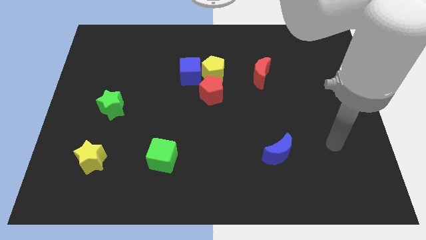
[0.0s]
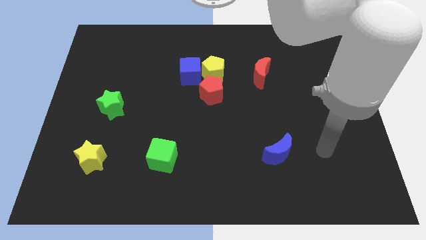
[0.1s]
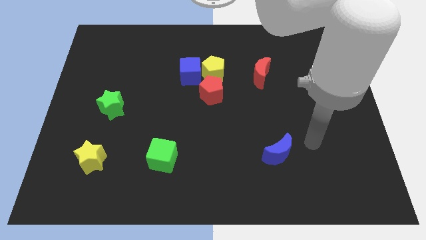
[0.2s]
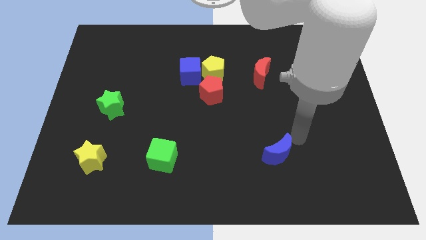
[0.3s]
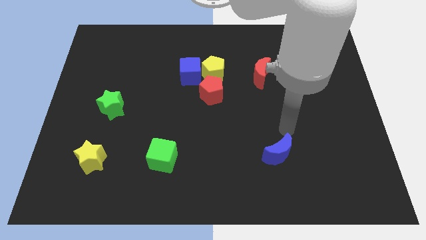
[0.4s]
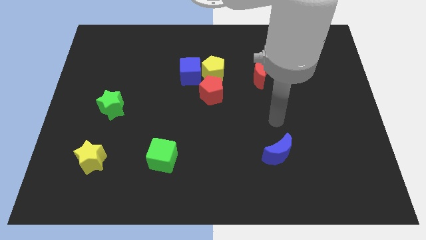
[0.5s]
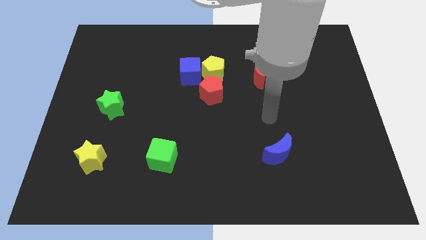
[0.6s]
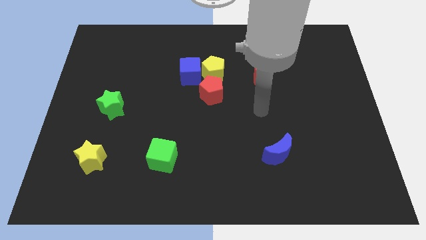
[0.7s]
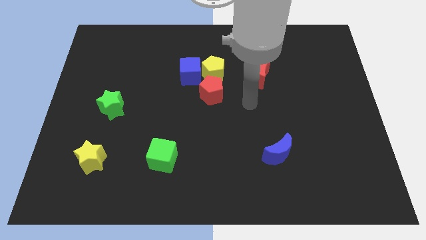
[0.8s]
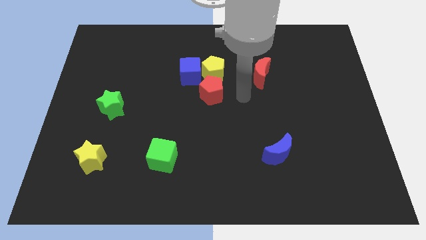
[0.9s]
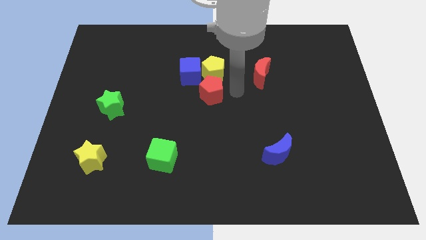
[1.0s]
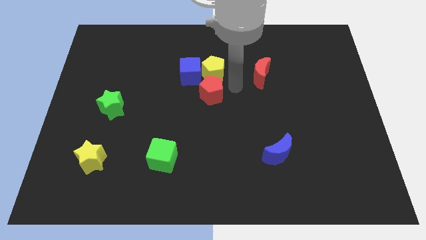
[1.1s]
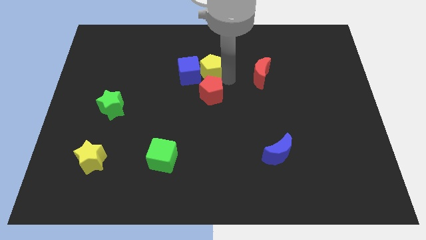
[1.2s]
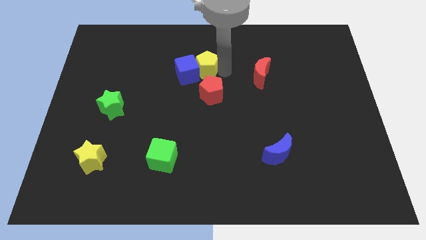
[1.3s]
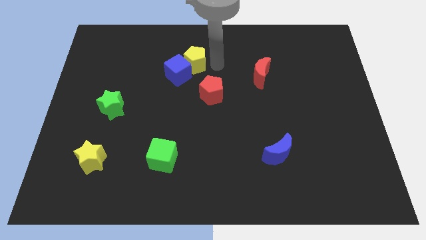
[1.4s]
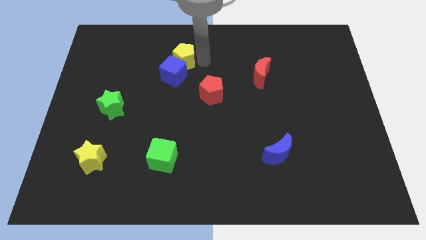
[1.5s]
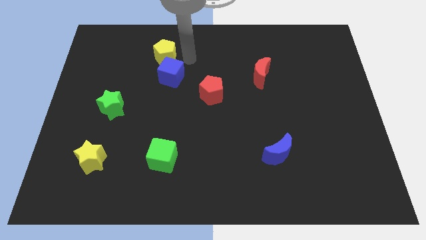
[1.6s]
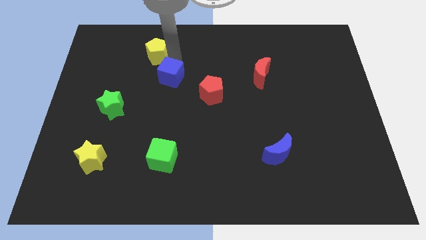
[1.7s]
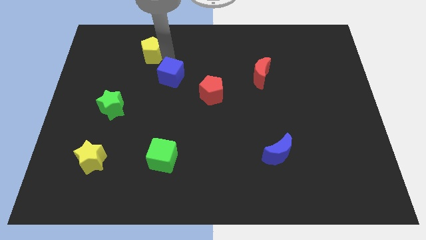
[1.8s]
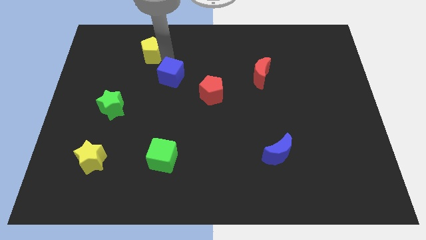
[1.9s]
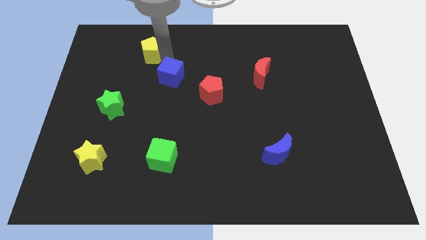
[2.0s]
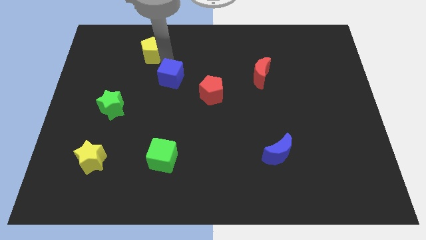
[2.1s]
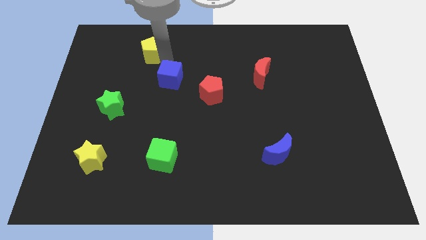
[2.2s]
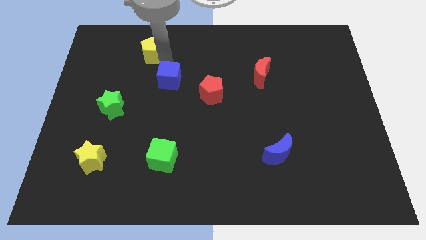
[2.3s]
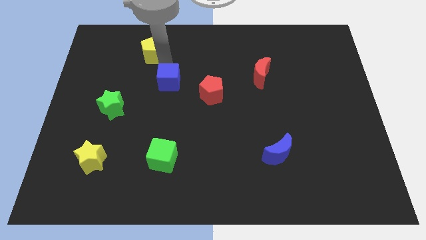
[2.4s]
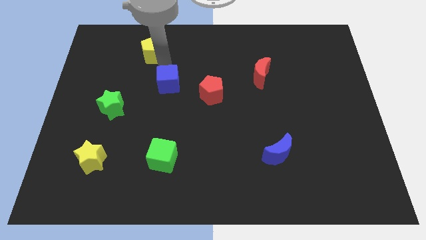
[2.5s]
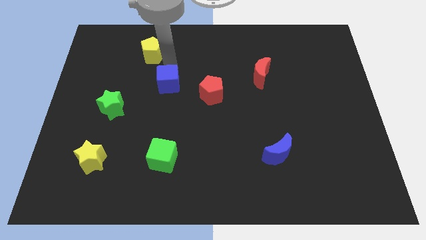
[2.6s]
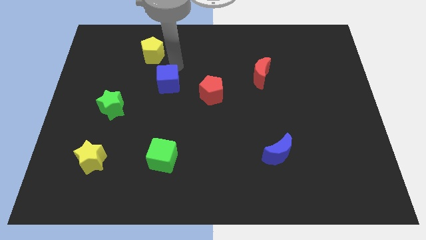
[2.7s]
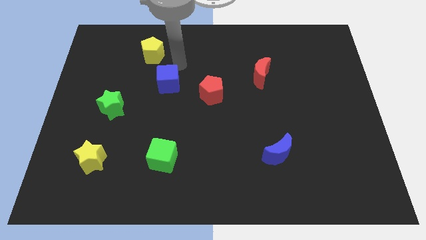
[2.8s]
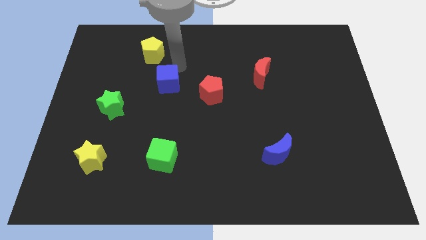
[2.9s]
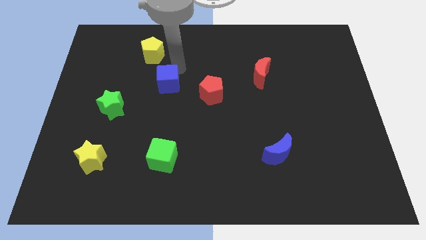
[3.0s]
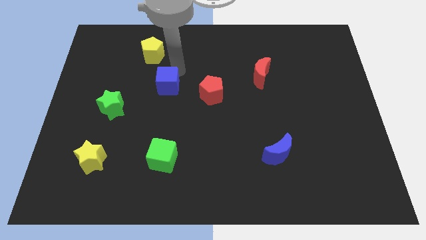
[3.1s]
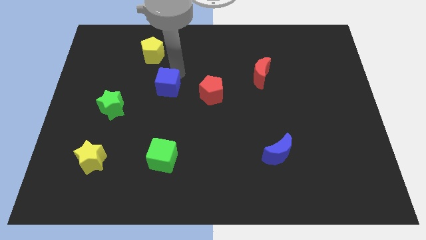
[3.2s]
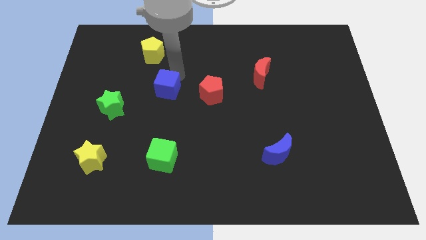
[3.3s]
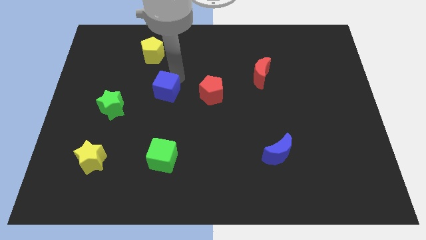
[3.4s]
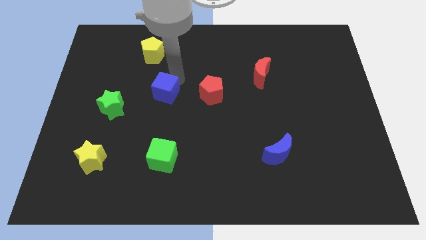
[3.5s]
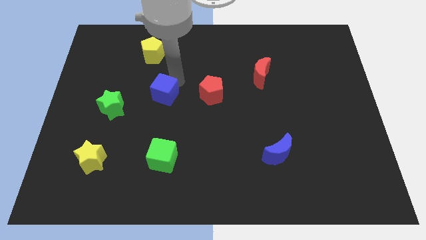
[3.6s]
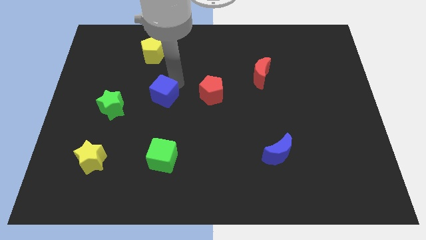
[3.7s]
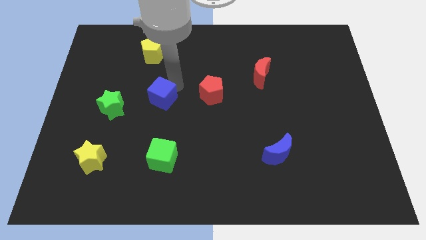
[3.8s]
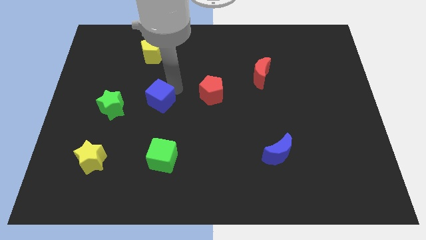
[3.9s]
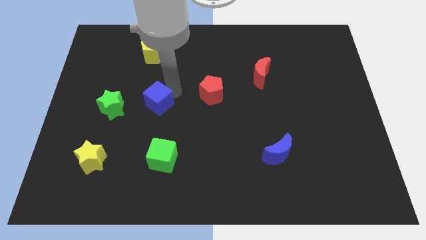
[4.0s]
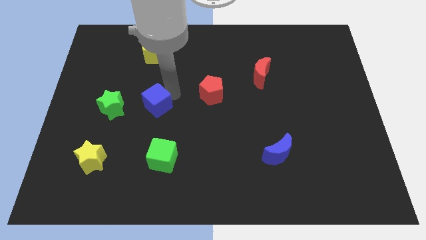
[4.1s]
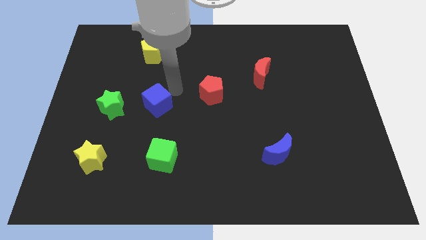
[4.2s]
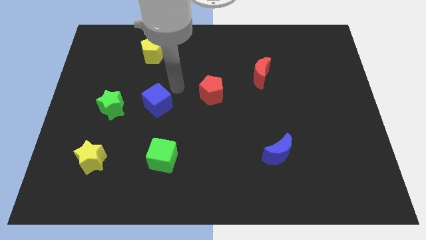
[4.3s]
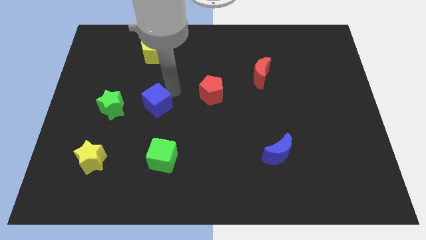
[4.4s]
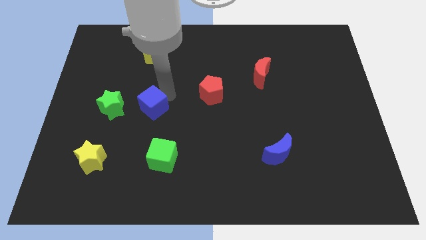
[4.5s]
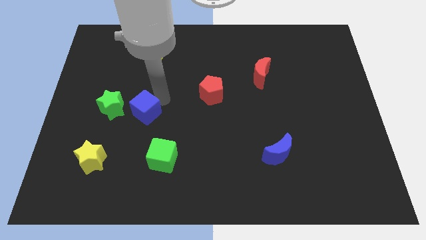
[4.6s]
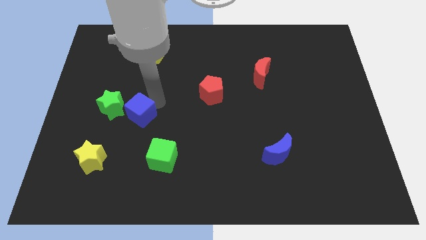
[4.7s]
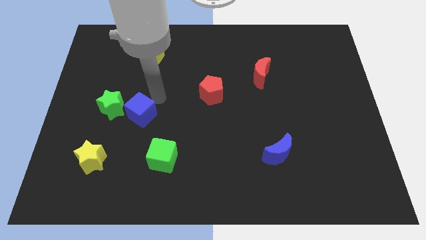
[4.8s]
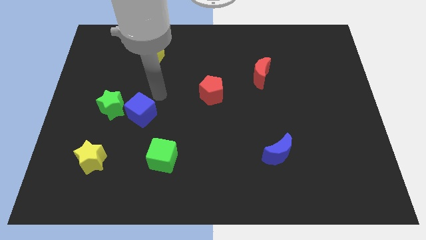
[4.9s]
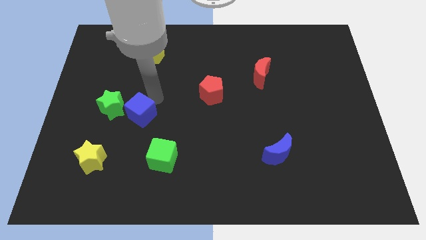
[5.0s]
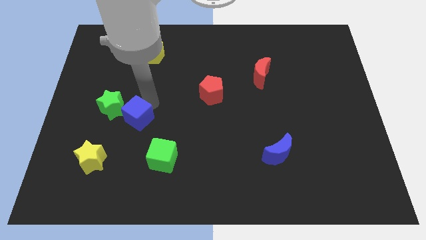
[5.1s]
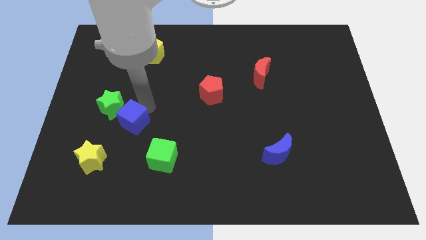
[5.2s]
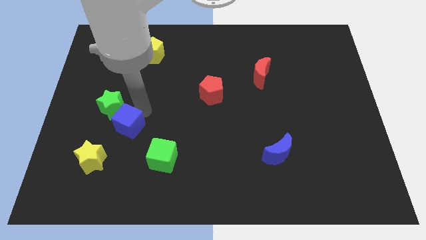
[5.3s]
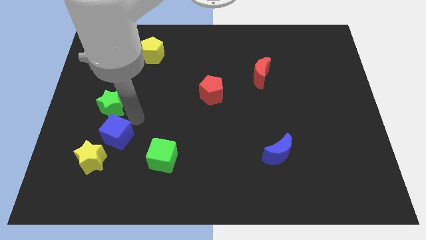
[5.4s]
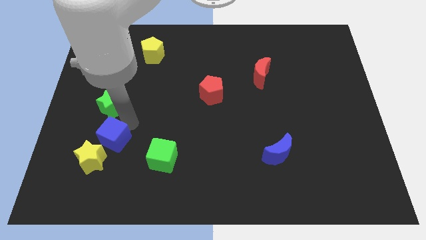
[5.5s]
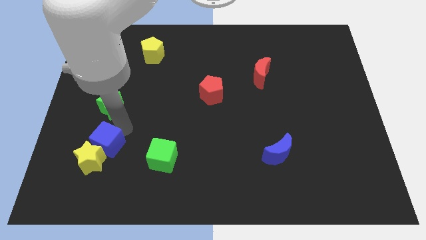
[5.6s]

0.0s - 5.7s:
move the blue cube to the yellow star

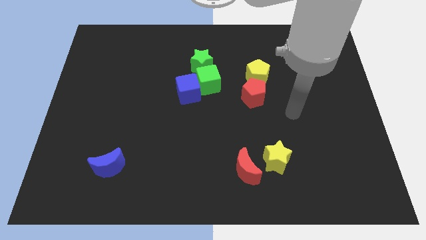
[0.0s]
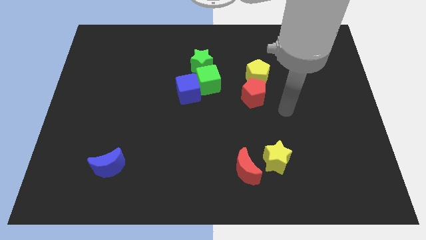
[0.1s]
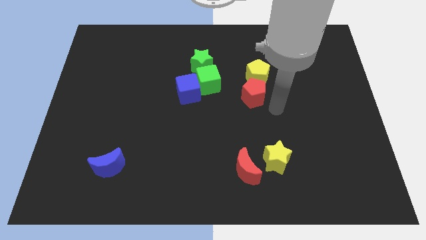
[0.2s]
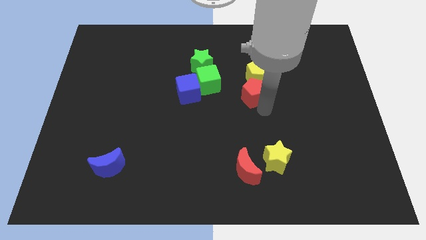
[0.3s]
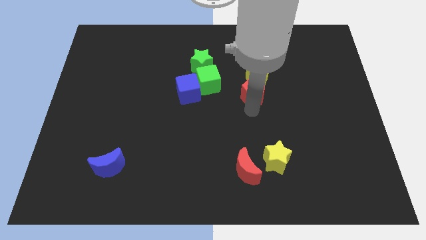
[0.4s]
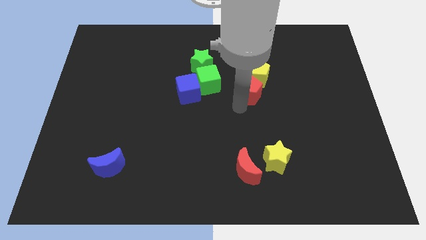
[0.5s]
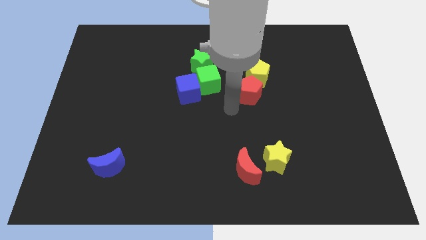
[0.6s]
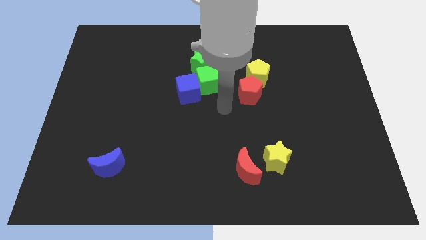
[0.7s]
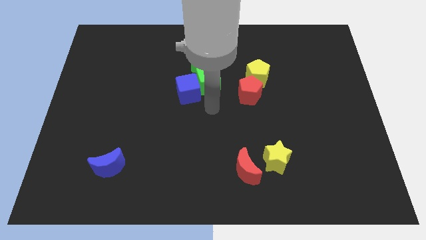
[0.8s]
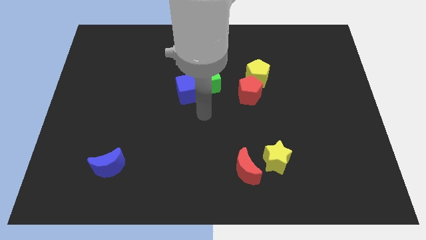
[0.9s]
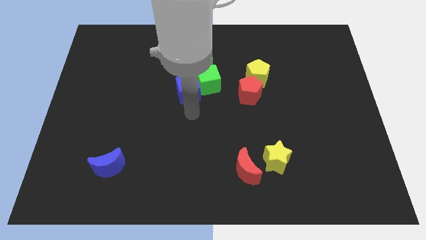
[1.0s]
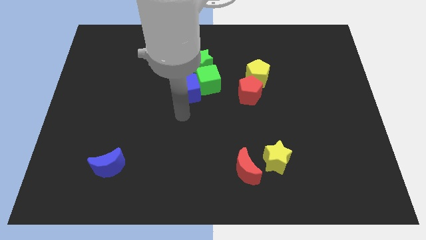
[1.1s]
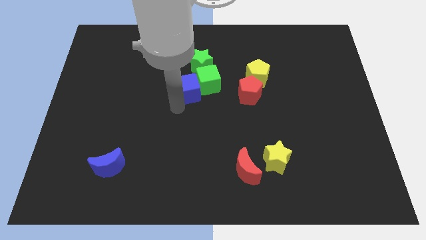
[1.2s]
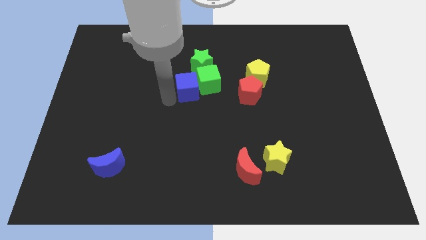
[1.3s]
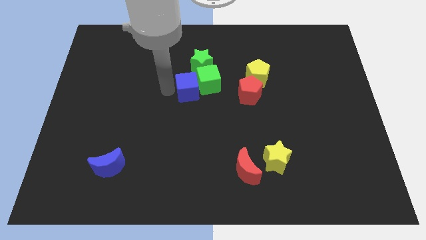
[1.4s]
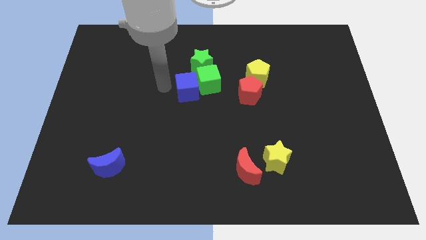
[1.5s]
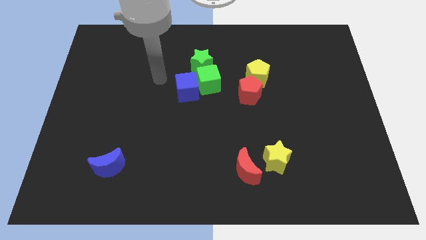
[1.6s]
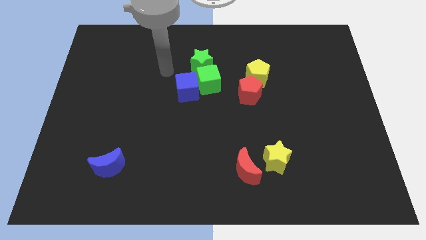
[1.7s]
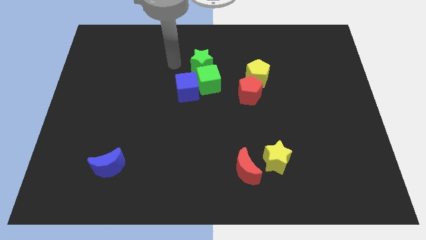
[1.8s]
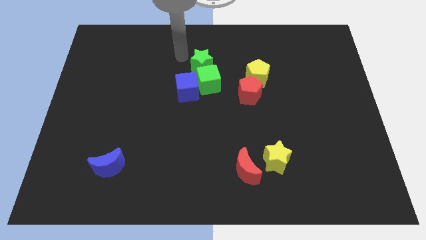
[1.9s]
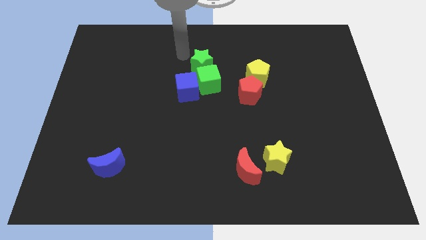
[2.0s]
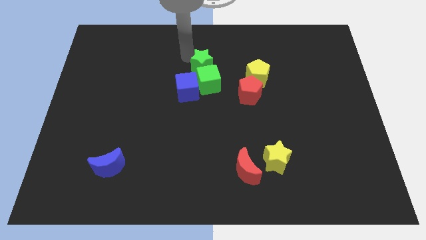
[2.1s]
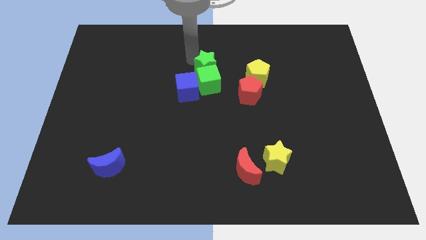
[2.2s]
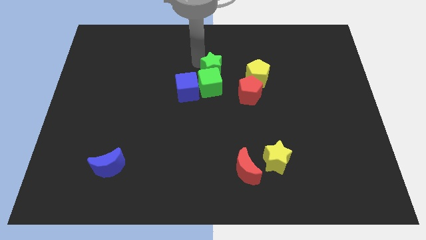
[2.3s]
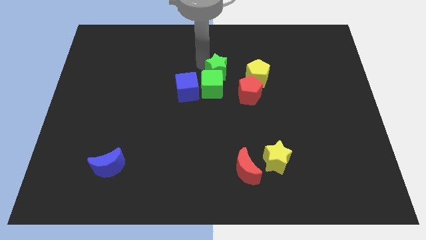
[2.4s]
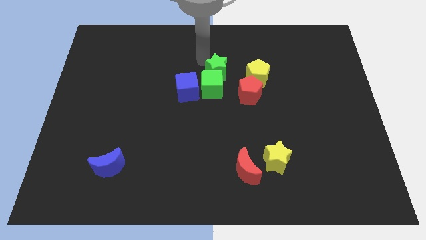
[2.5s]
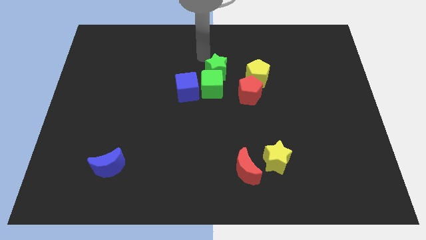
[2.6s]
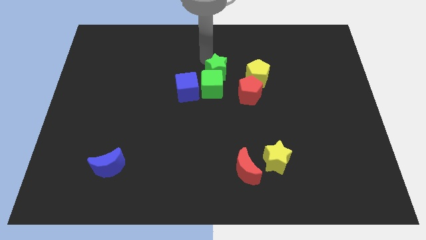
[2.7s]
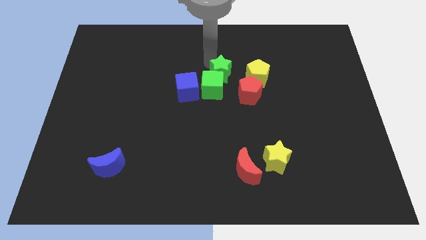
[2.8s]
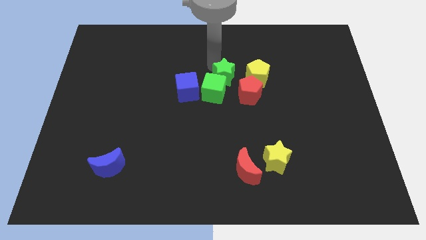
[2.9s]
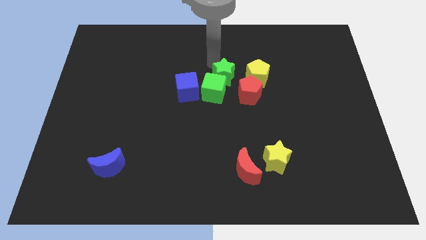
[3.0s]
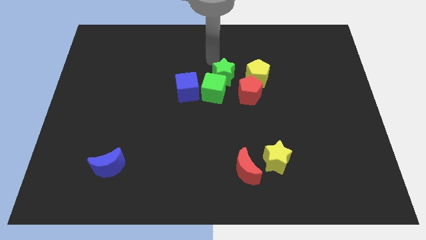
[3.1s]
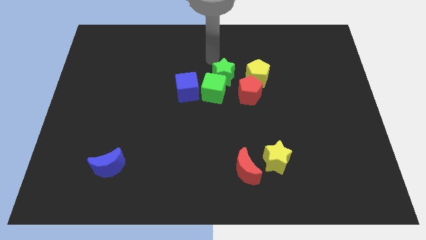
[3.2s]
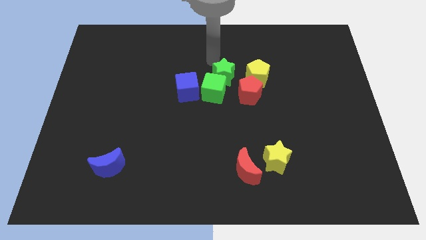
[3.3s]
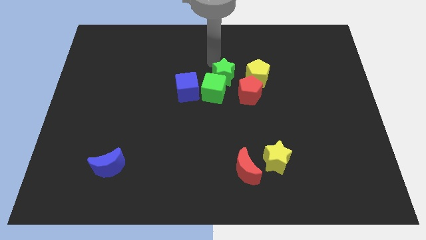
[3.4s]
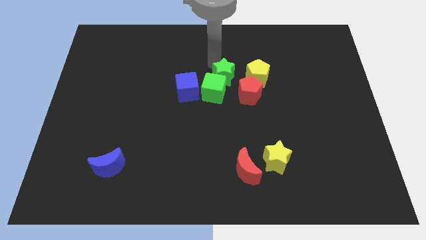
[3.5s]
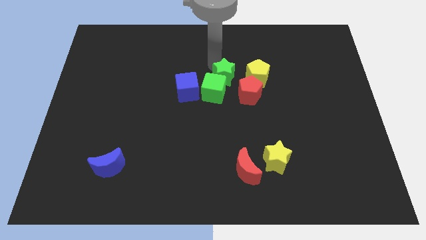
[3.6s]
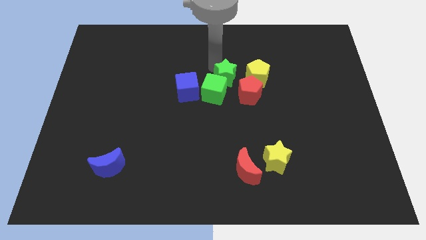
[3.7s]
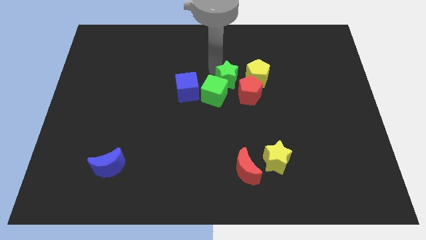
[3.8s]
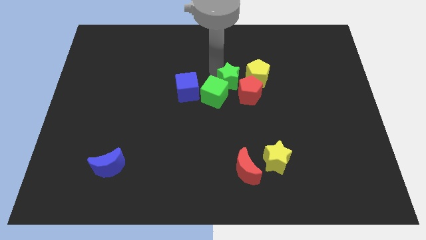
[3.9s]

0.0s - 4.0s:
move the green star close to the red pentagon
